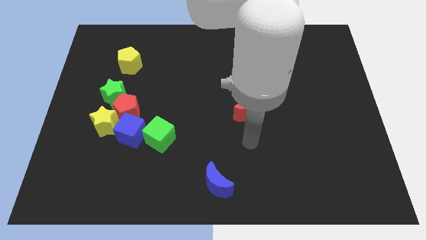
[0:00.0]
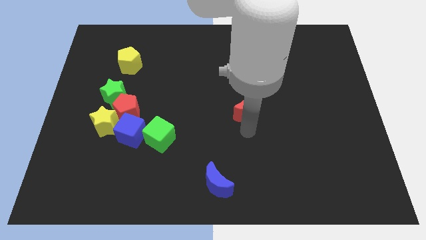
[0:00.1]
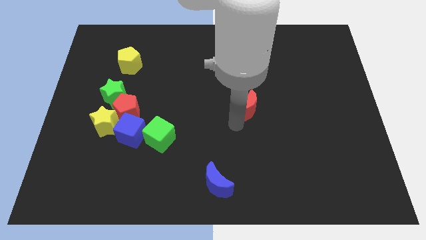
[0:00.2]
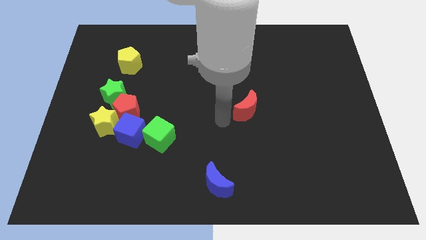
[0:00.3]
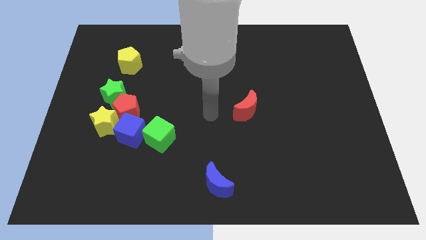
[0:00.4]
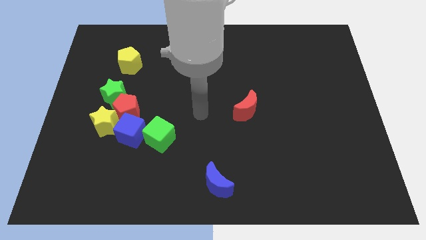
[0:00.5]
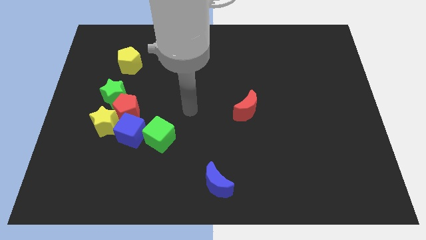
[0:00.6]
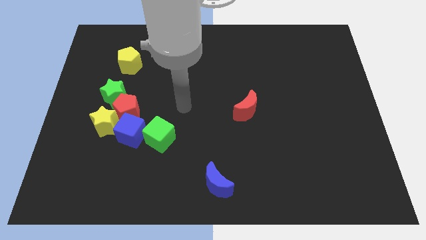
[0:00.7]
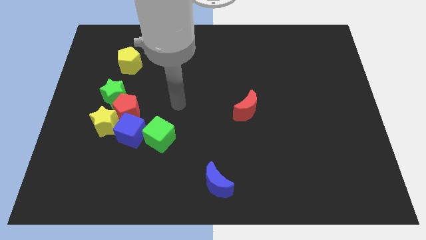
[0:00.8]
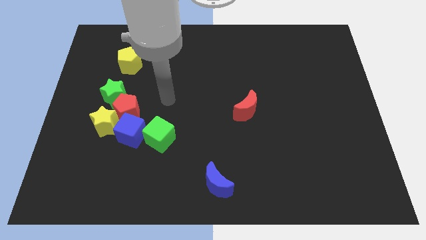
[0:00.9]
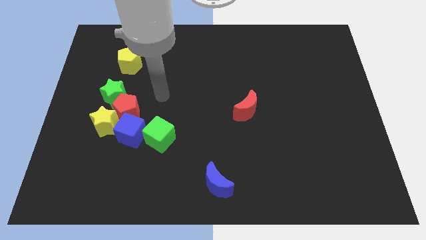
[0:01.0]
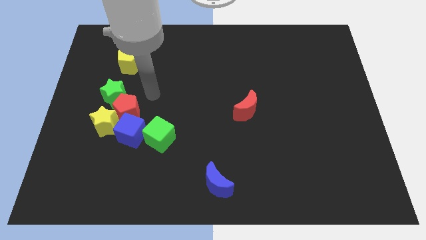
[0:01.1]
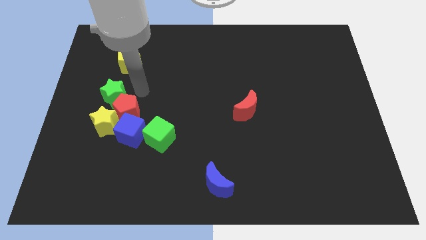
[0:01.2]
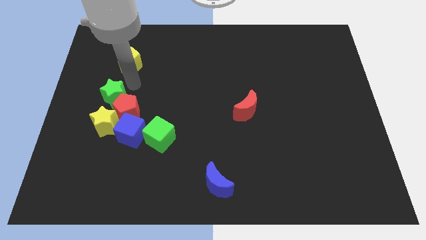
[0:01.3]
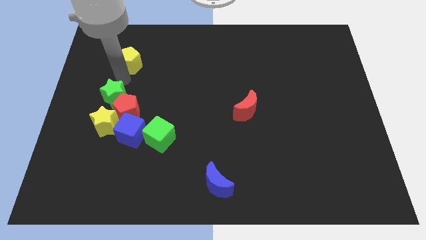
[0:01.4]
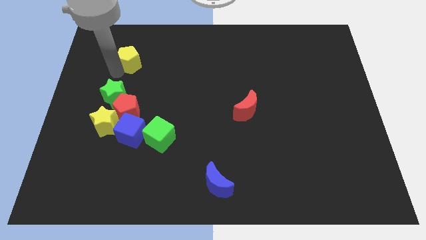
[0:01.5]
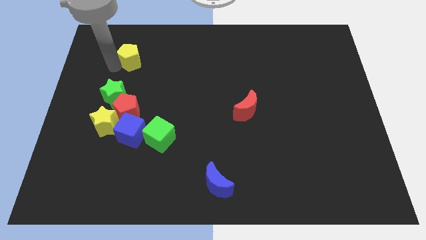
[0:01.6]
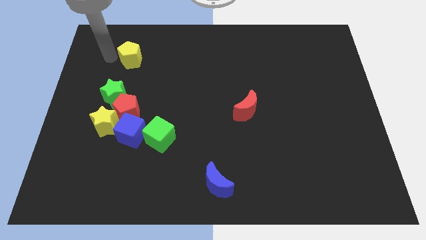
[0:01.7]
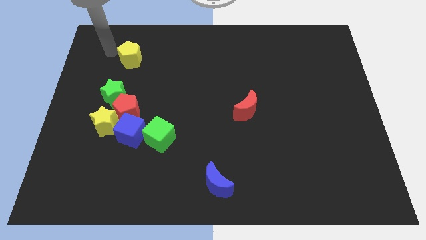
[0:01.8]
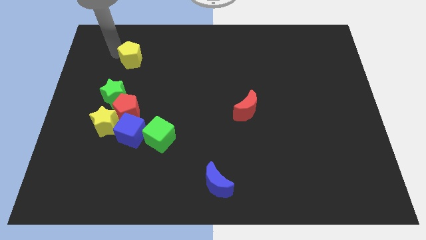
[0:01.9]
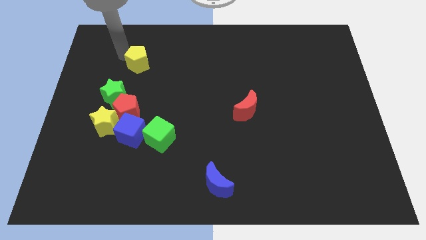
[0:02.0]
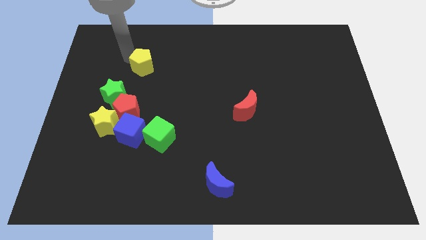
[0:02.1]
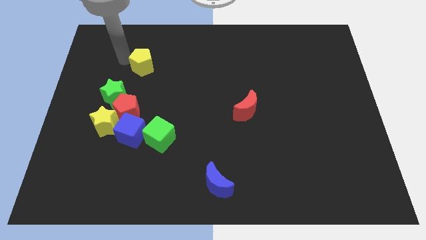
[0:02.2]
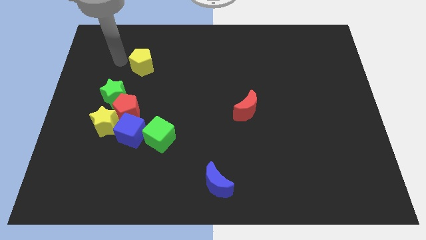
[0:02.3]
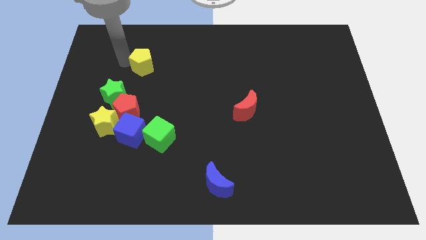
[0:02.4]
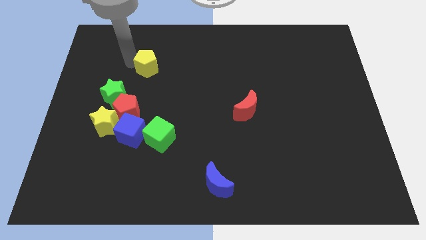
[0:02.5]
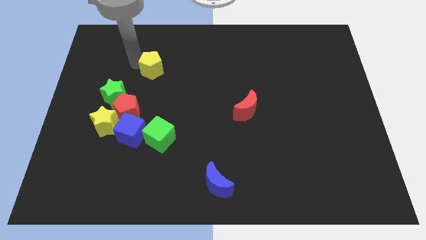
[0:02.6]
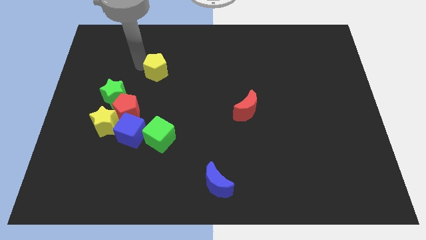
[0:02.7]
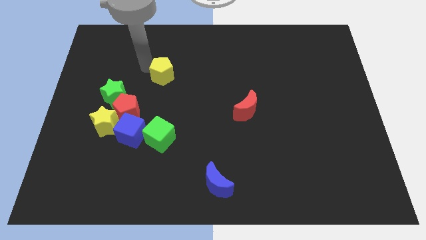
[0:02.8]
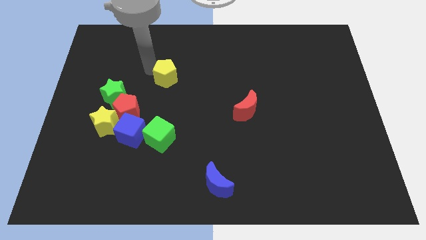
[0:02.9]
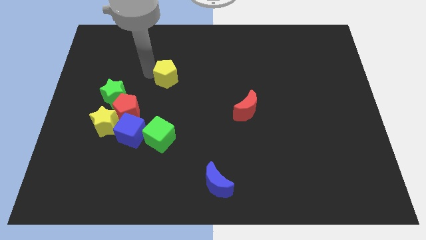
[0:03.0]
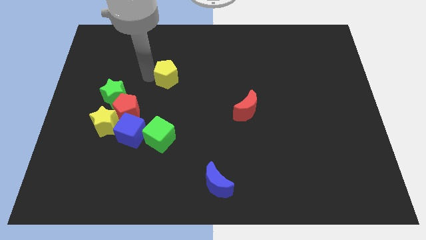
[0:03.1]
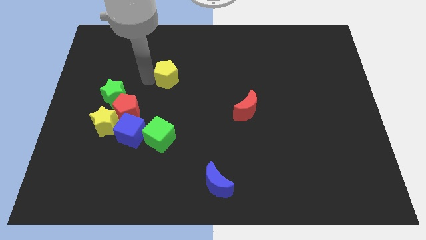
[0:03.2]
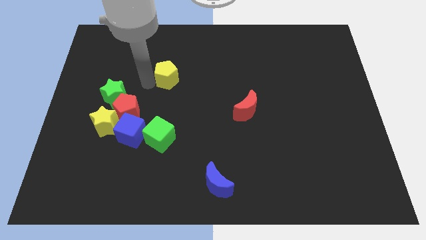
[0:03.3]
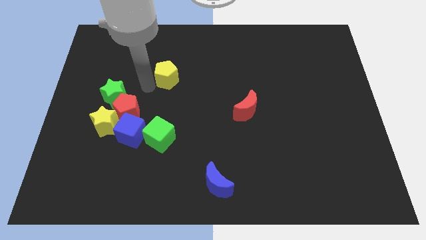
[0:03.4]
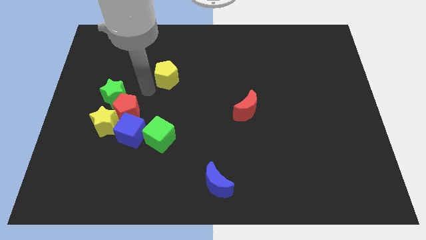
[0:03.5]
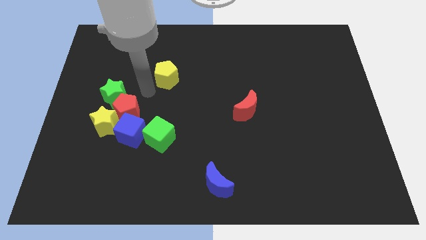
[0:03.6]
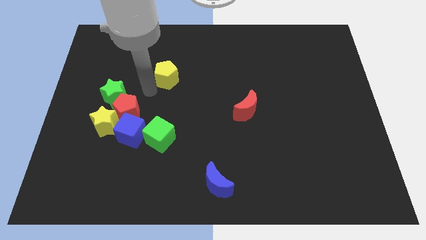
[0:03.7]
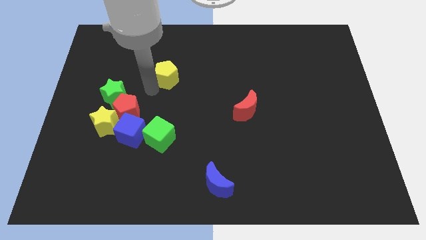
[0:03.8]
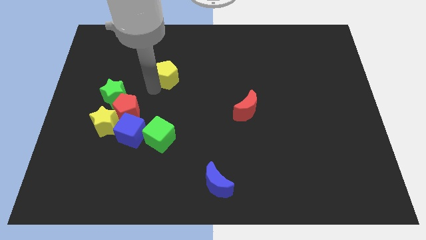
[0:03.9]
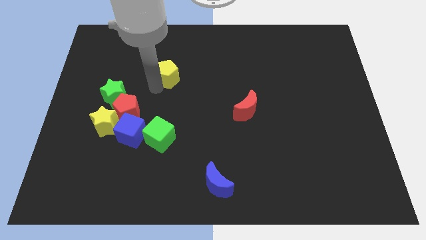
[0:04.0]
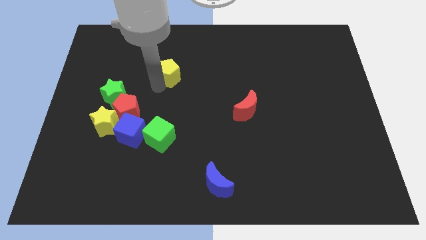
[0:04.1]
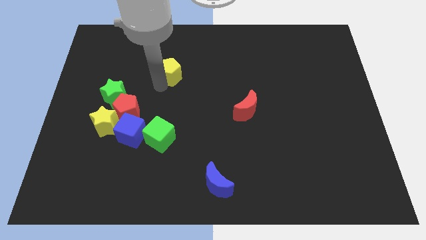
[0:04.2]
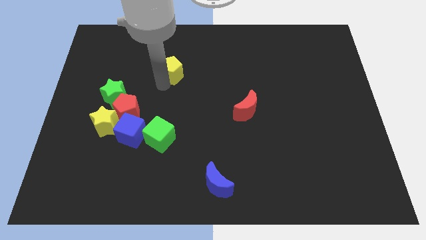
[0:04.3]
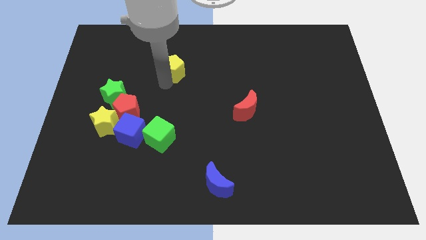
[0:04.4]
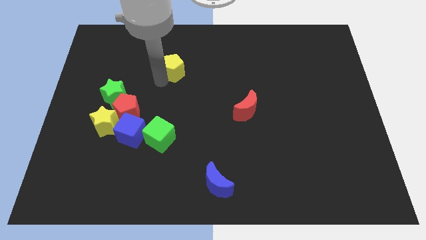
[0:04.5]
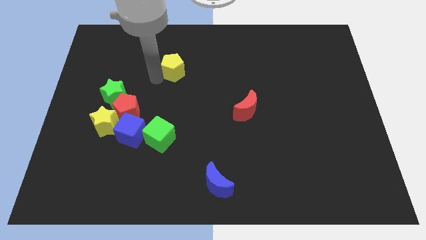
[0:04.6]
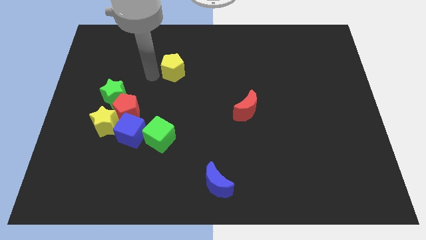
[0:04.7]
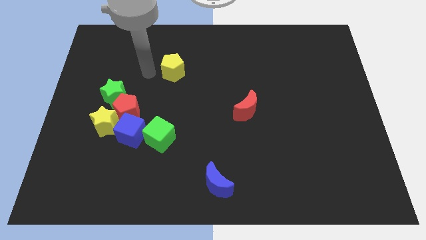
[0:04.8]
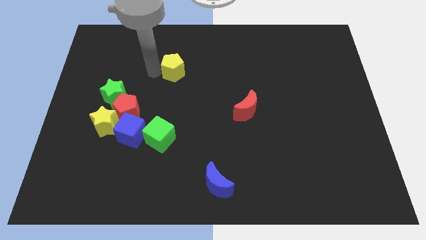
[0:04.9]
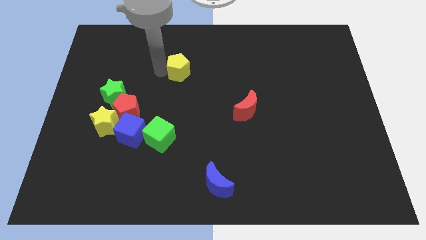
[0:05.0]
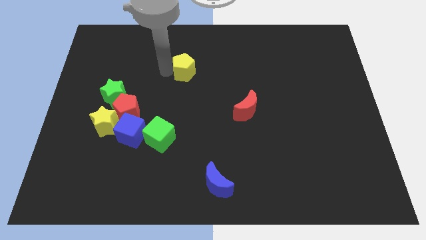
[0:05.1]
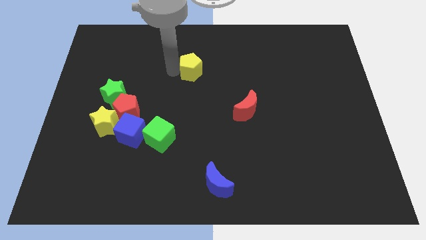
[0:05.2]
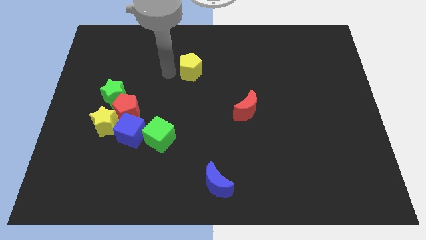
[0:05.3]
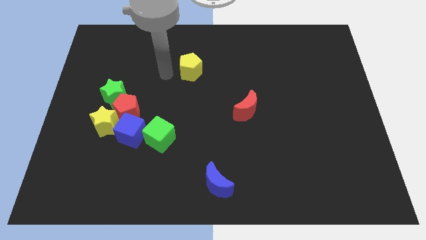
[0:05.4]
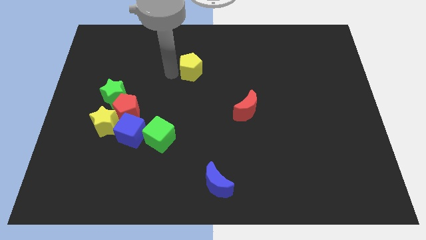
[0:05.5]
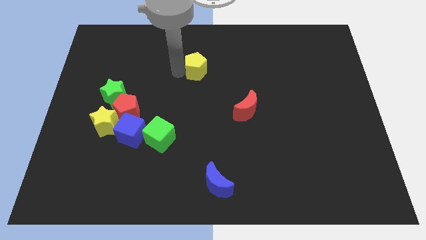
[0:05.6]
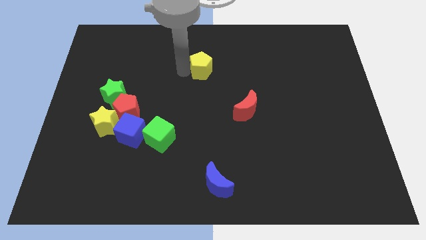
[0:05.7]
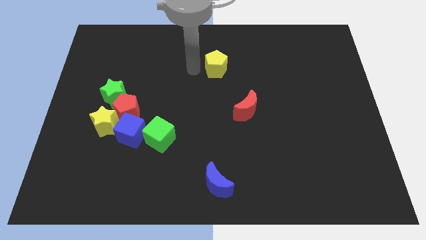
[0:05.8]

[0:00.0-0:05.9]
slide the yellow pentagon right

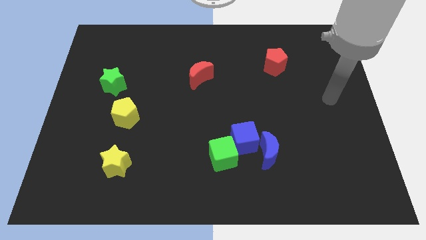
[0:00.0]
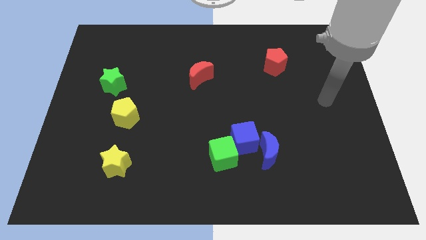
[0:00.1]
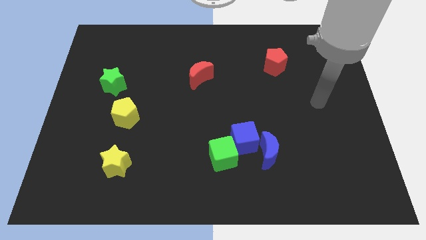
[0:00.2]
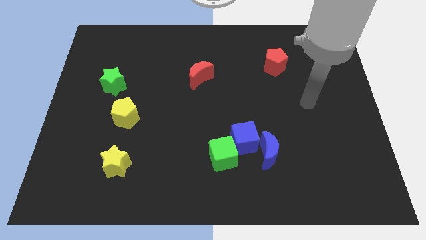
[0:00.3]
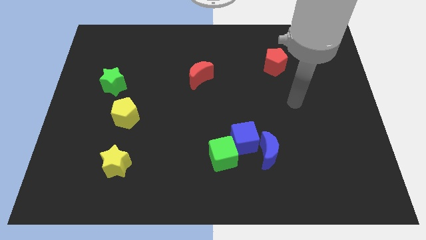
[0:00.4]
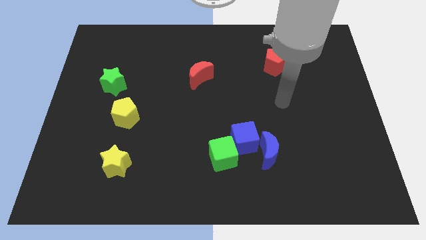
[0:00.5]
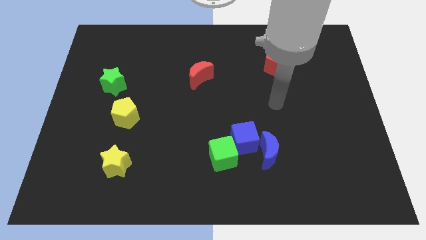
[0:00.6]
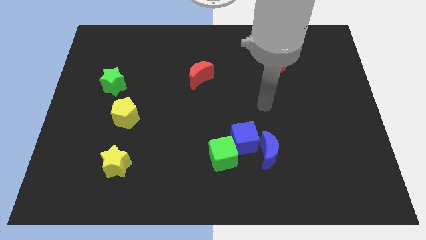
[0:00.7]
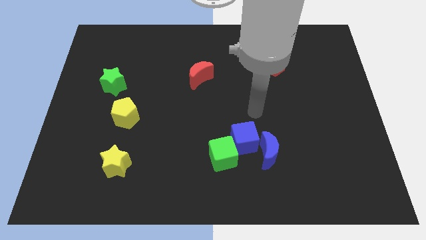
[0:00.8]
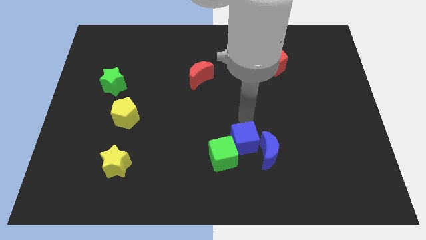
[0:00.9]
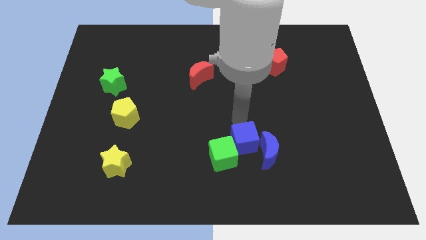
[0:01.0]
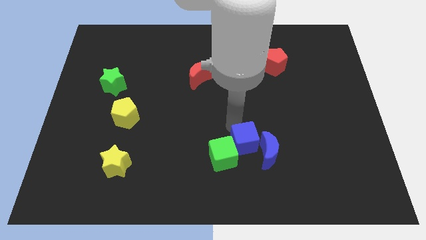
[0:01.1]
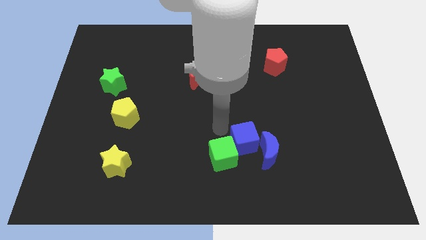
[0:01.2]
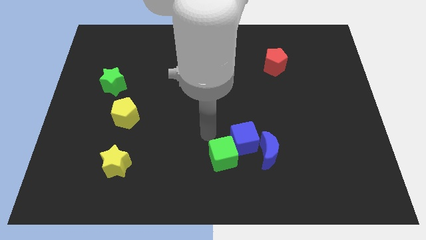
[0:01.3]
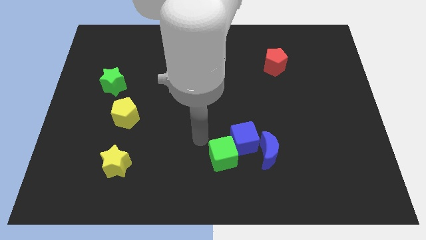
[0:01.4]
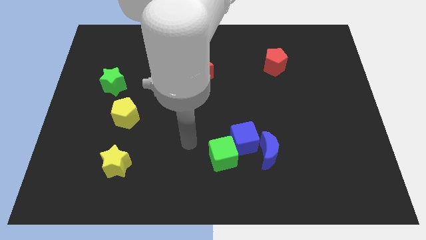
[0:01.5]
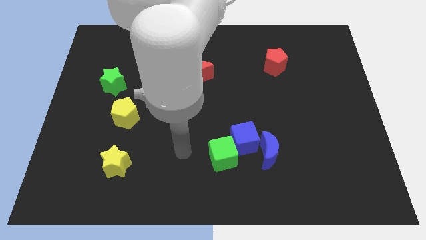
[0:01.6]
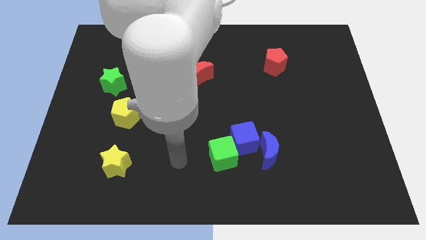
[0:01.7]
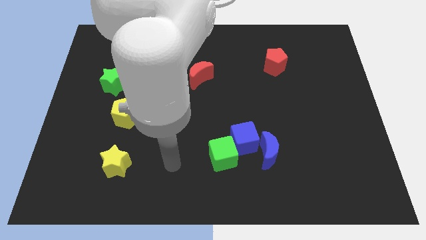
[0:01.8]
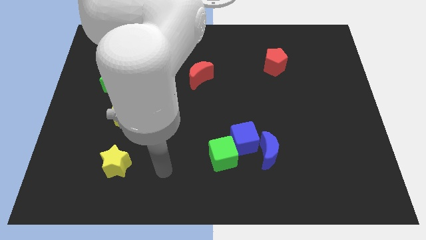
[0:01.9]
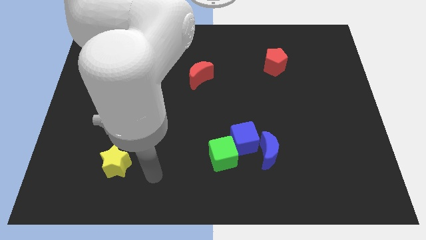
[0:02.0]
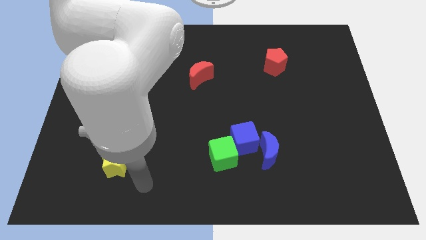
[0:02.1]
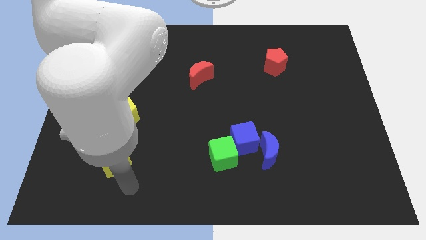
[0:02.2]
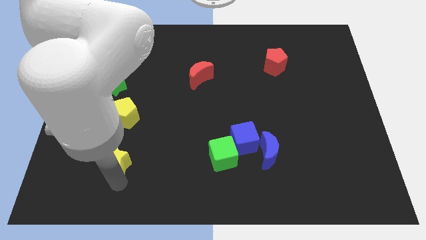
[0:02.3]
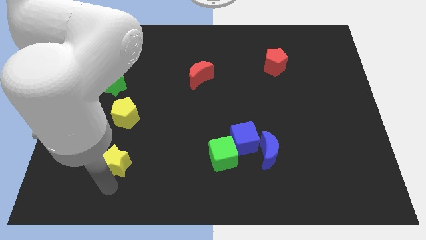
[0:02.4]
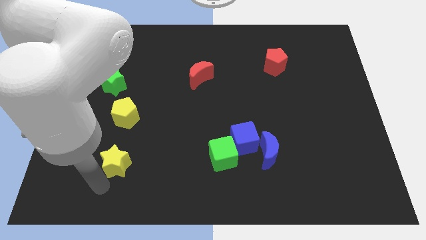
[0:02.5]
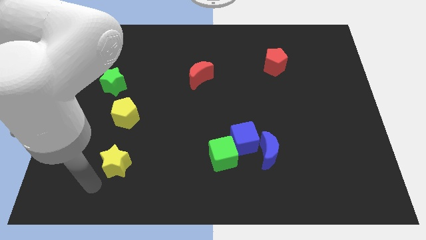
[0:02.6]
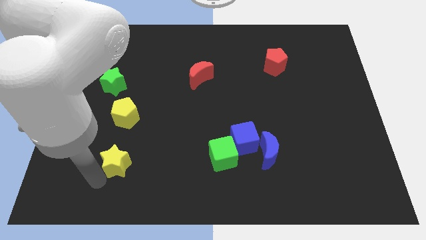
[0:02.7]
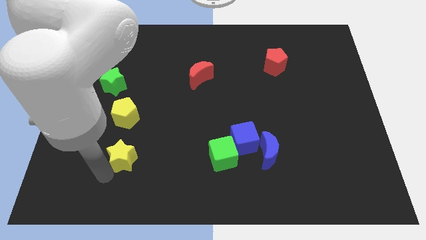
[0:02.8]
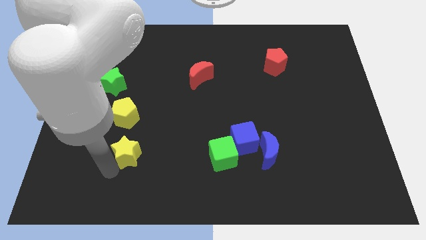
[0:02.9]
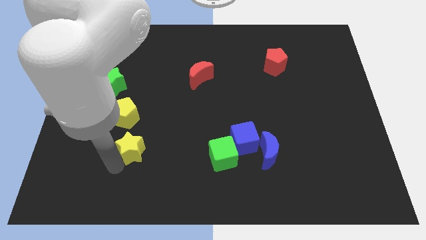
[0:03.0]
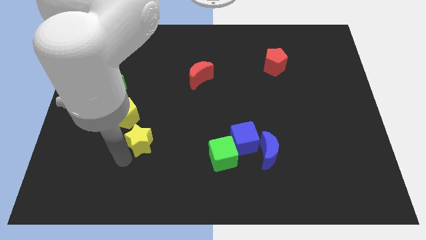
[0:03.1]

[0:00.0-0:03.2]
slightly push the yellow star diagonally up and to the right
